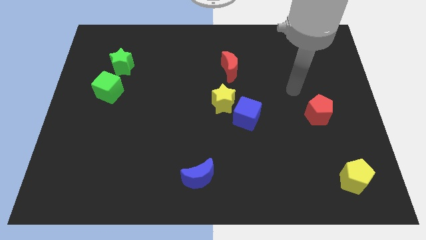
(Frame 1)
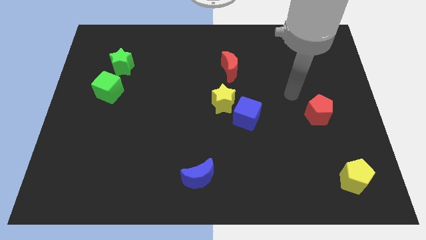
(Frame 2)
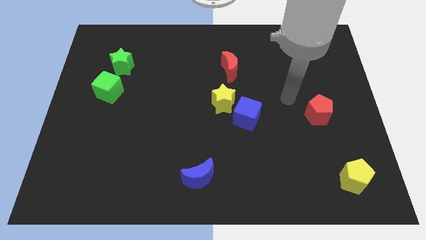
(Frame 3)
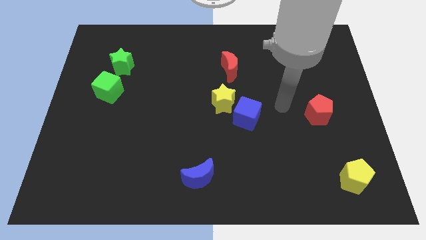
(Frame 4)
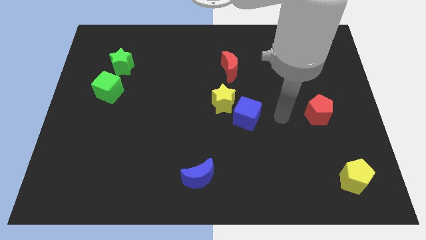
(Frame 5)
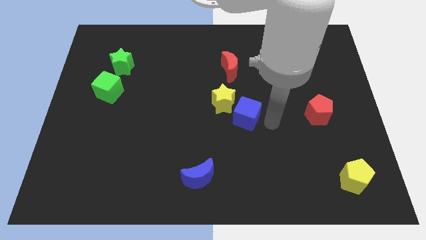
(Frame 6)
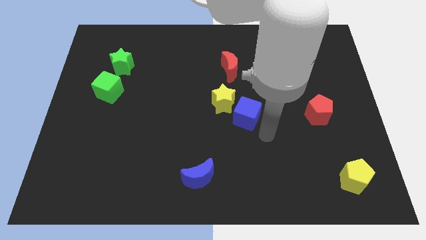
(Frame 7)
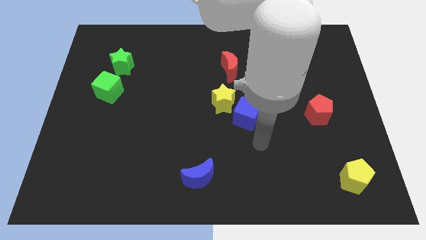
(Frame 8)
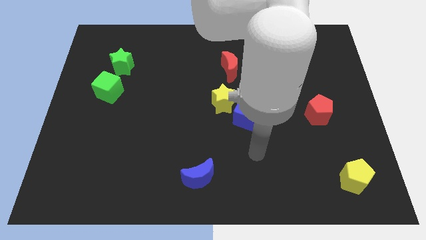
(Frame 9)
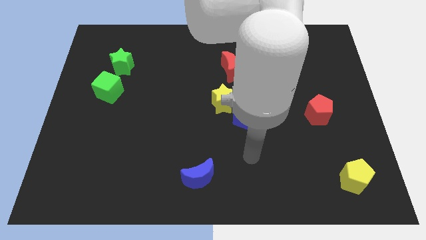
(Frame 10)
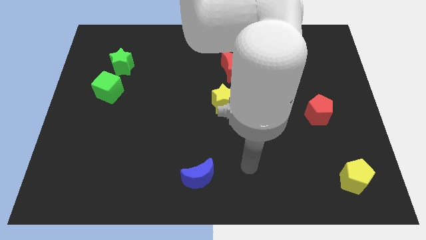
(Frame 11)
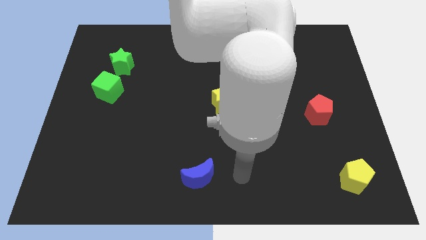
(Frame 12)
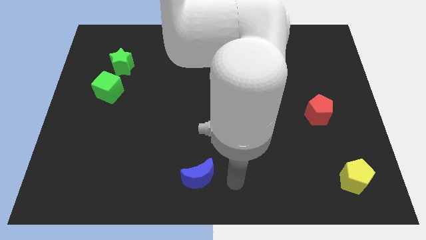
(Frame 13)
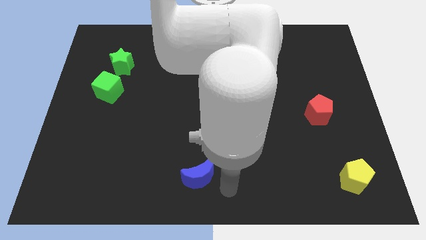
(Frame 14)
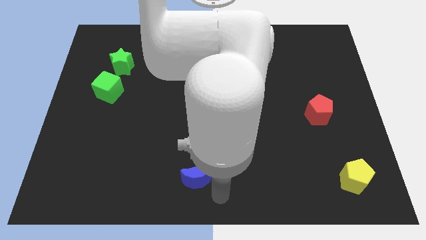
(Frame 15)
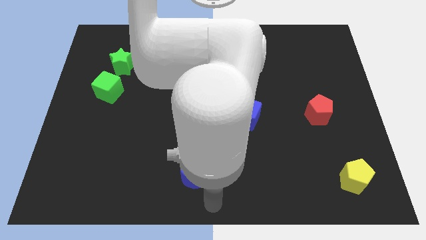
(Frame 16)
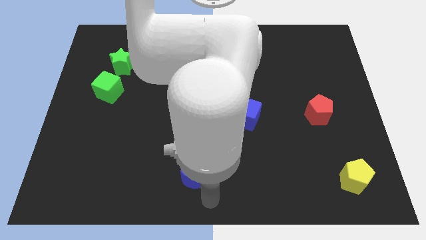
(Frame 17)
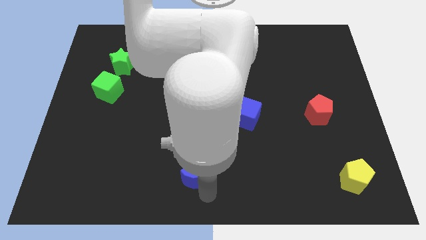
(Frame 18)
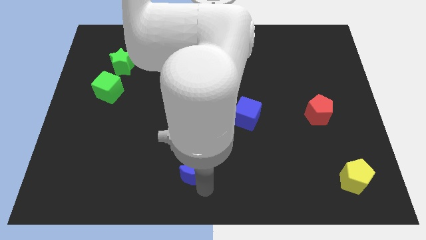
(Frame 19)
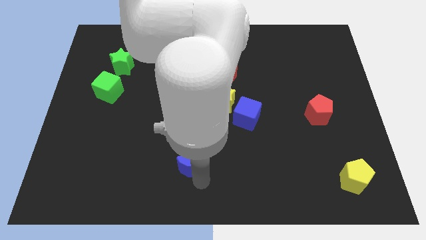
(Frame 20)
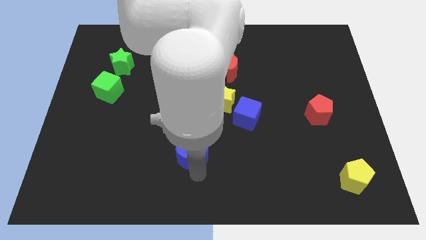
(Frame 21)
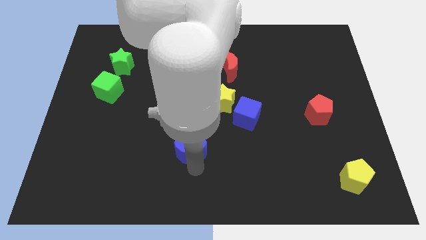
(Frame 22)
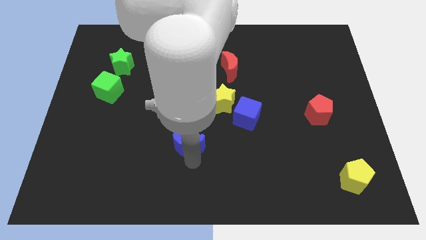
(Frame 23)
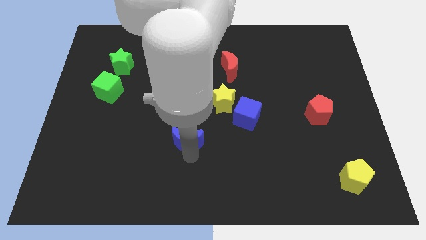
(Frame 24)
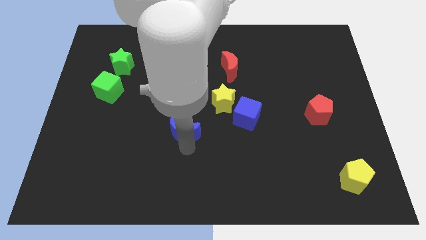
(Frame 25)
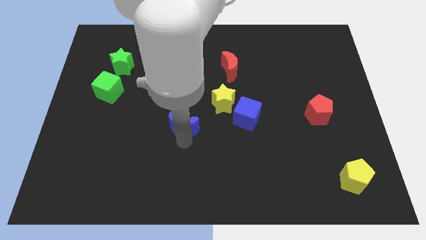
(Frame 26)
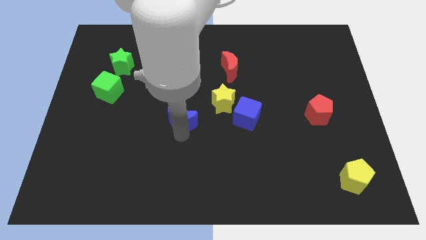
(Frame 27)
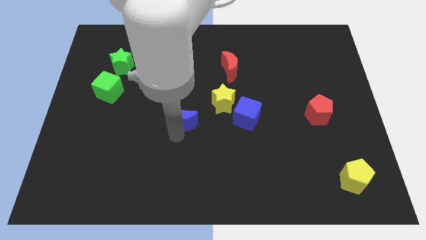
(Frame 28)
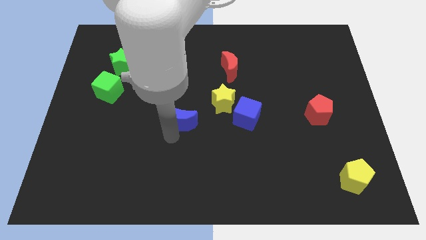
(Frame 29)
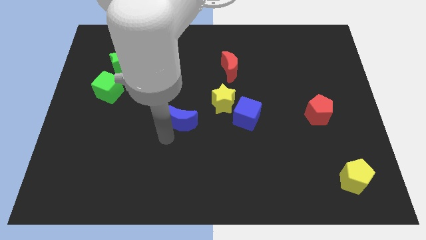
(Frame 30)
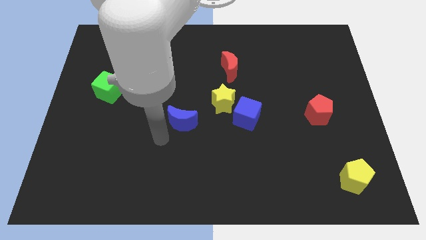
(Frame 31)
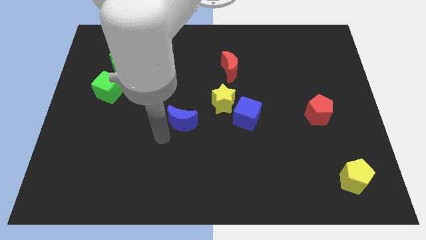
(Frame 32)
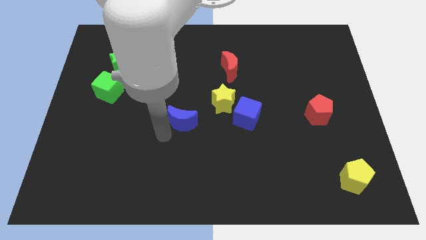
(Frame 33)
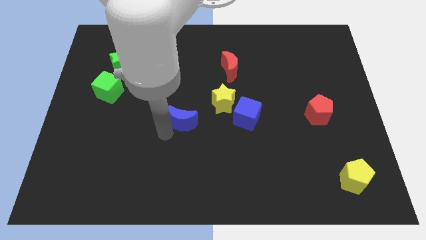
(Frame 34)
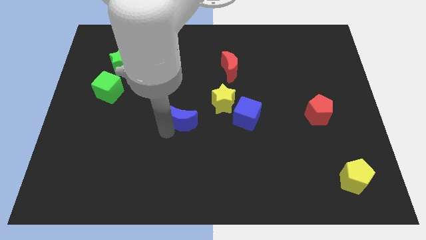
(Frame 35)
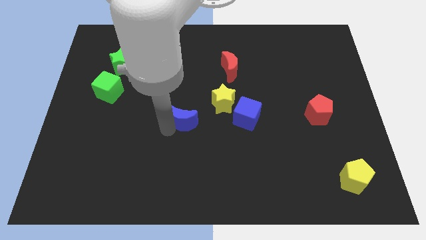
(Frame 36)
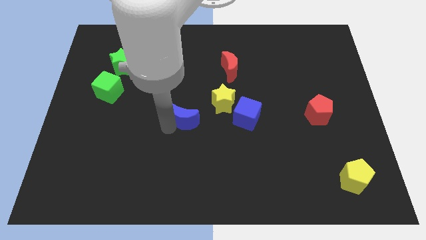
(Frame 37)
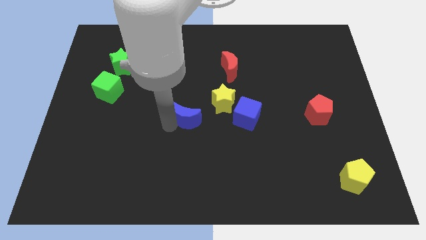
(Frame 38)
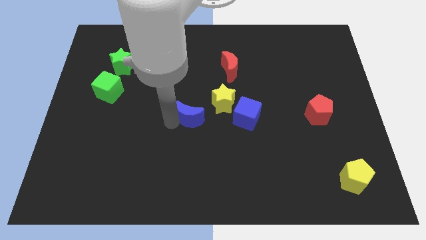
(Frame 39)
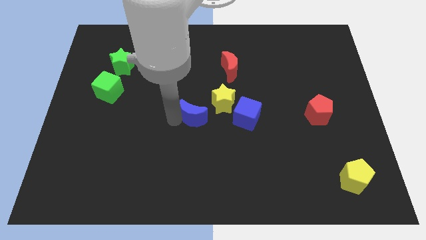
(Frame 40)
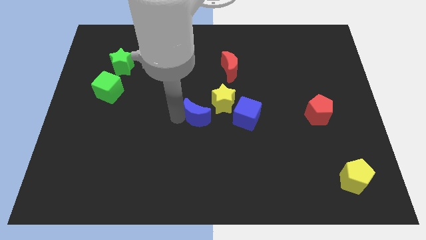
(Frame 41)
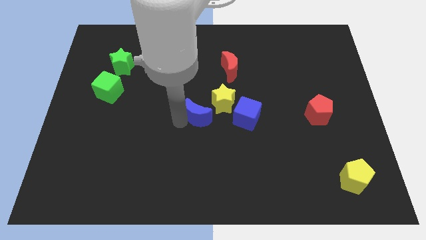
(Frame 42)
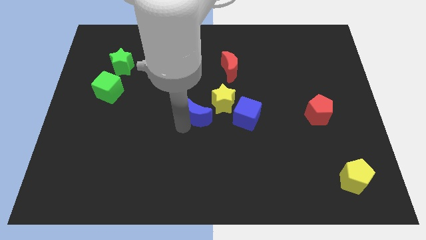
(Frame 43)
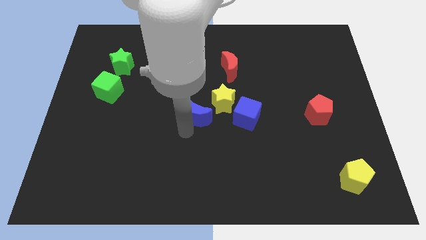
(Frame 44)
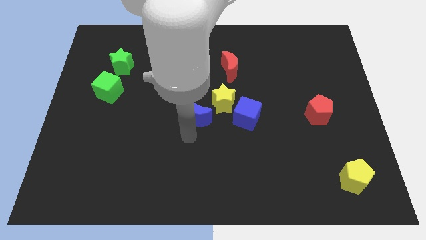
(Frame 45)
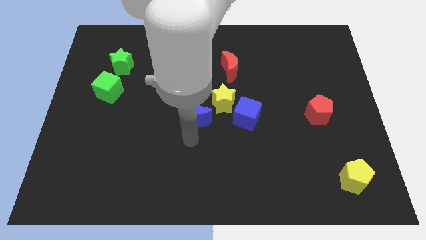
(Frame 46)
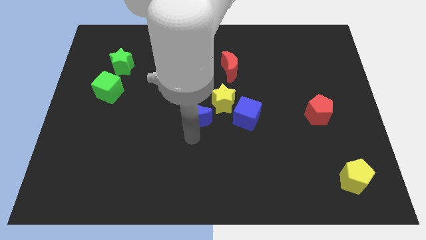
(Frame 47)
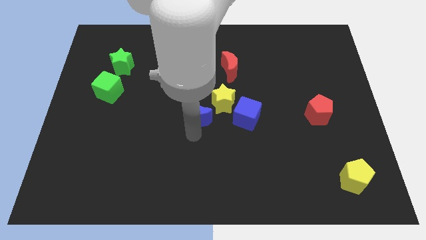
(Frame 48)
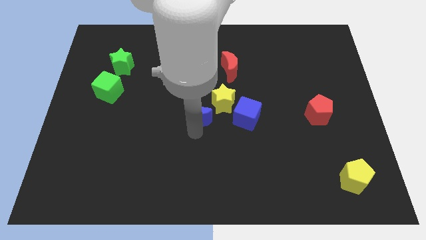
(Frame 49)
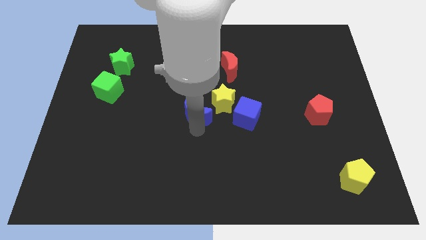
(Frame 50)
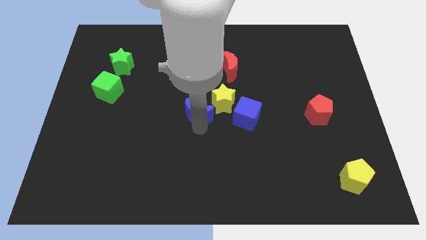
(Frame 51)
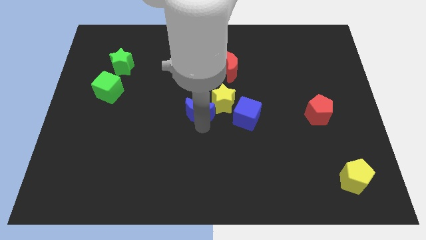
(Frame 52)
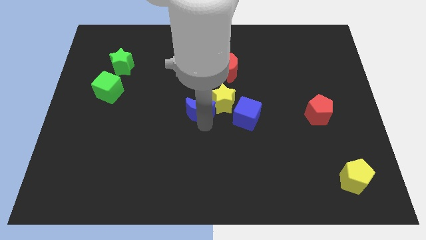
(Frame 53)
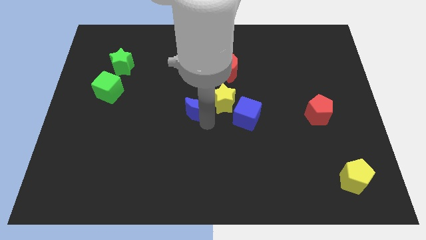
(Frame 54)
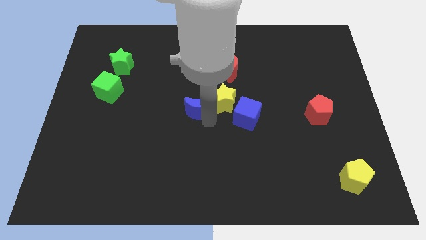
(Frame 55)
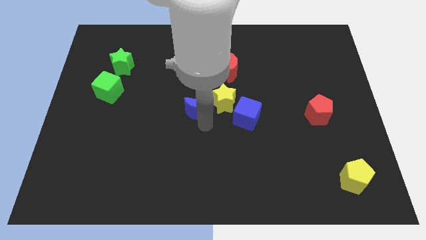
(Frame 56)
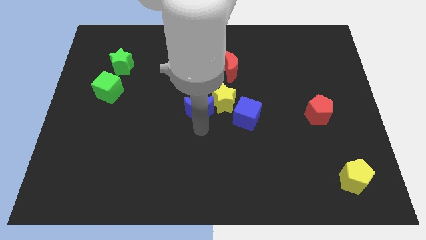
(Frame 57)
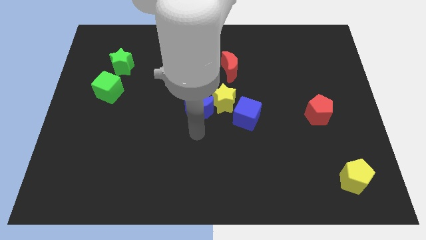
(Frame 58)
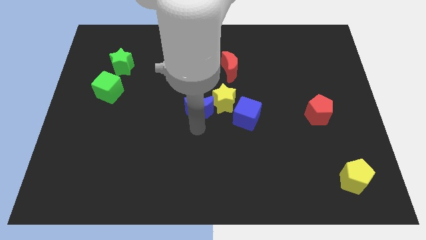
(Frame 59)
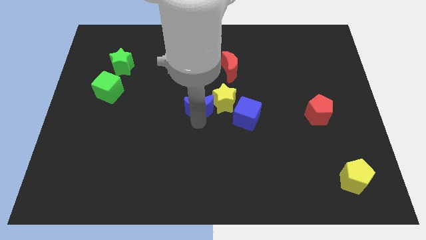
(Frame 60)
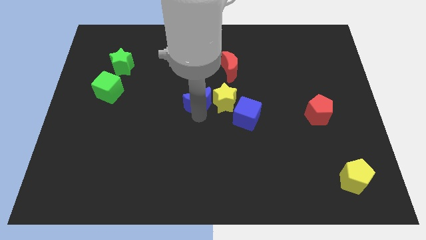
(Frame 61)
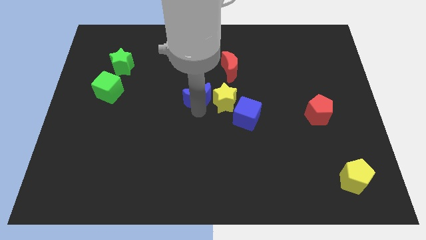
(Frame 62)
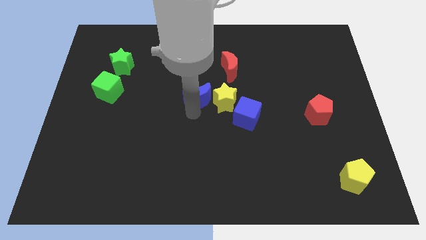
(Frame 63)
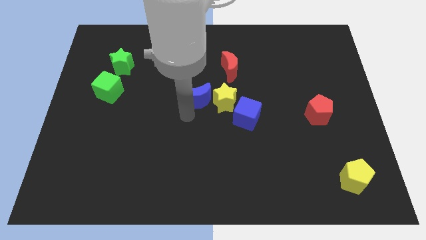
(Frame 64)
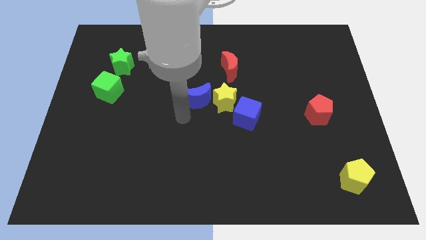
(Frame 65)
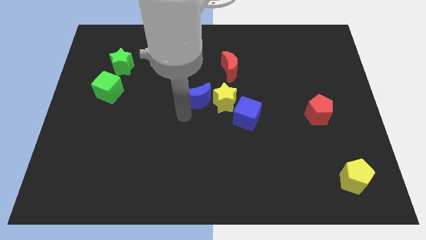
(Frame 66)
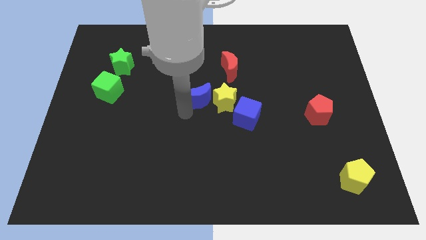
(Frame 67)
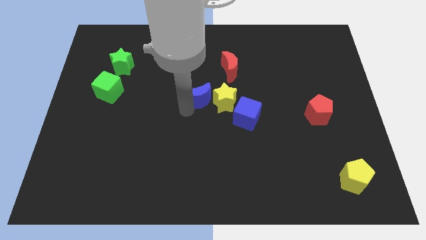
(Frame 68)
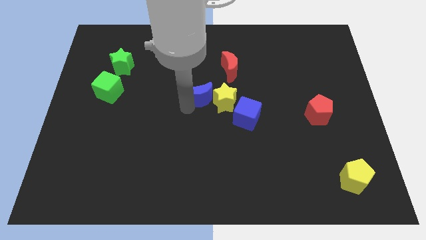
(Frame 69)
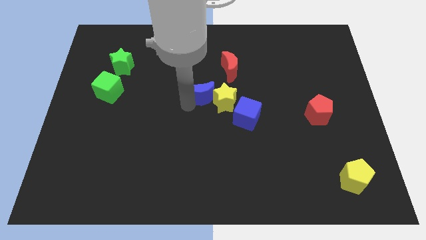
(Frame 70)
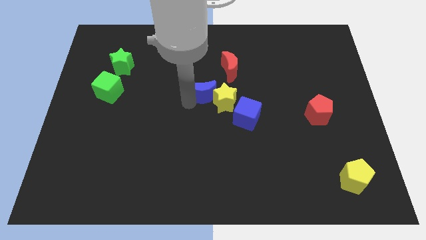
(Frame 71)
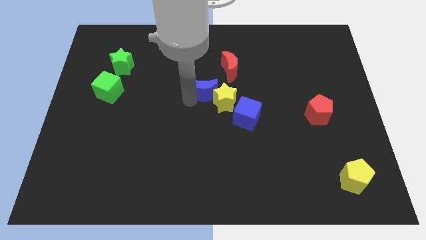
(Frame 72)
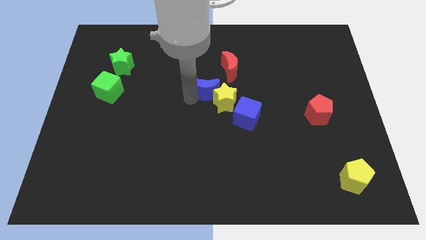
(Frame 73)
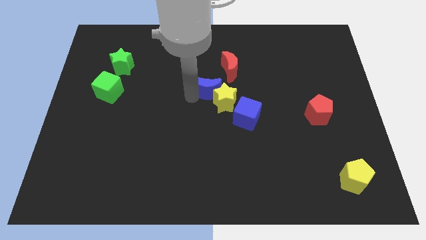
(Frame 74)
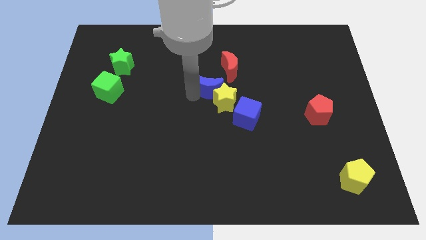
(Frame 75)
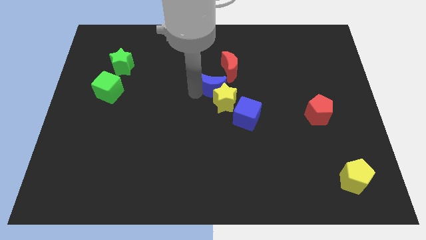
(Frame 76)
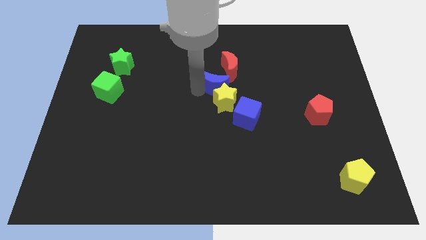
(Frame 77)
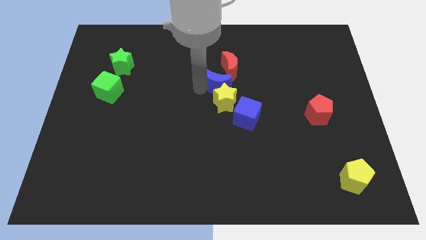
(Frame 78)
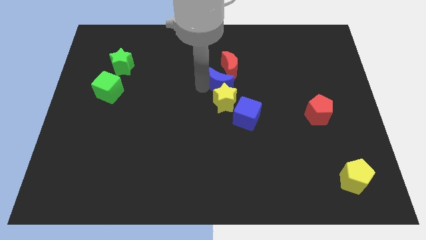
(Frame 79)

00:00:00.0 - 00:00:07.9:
put the blue moon close to the red moon
